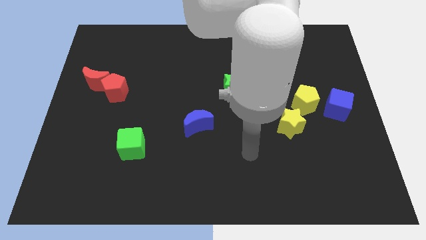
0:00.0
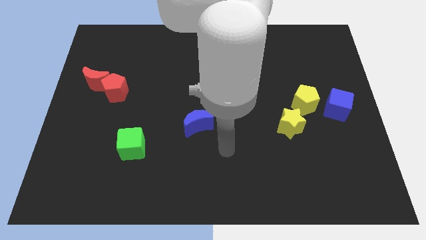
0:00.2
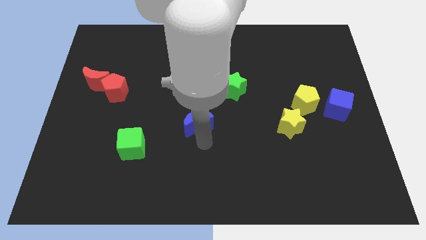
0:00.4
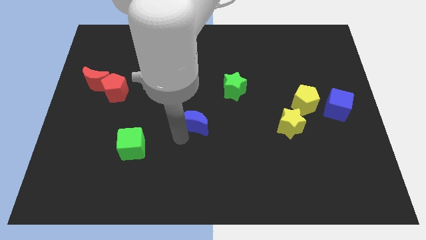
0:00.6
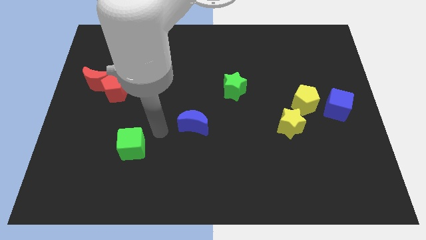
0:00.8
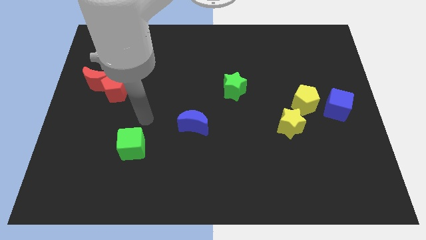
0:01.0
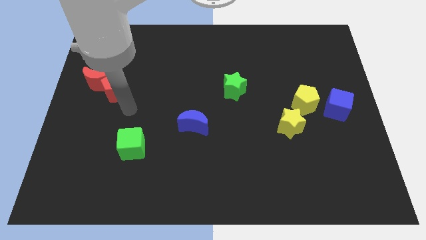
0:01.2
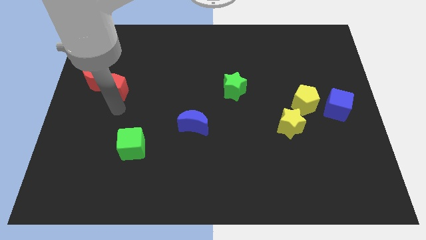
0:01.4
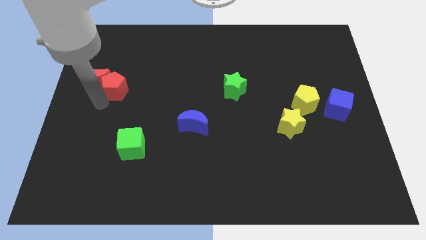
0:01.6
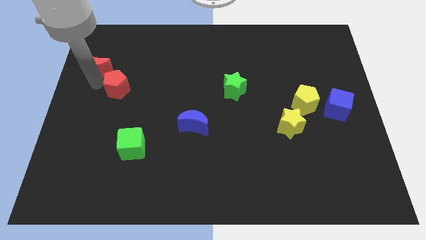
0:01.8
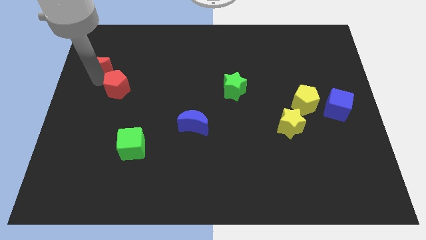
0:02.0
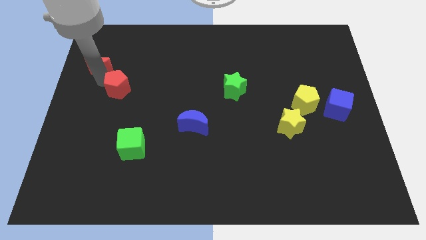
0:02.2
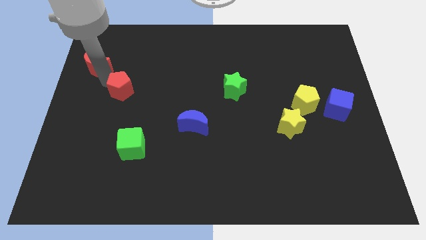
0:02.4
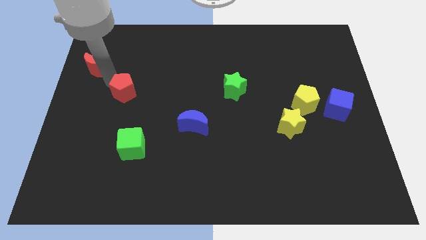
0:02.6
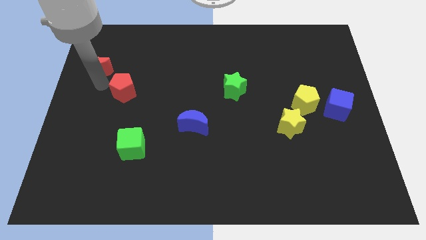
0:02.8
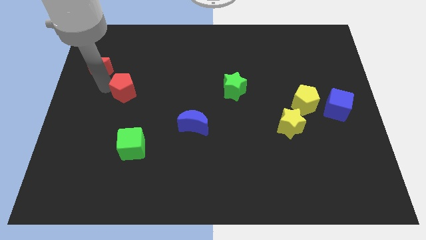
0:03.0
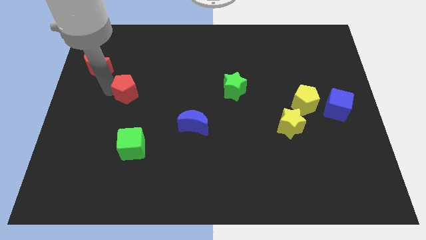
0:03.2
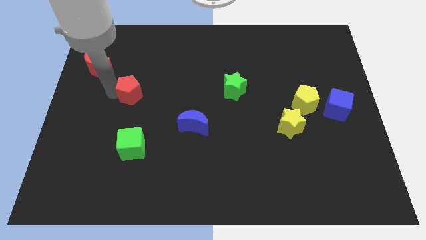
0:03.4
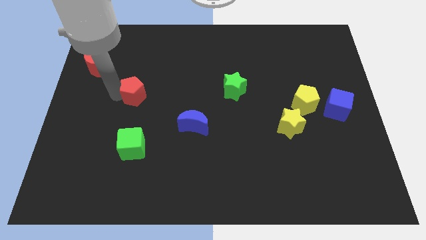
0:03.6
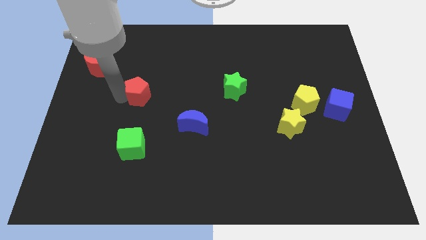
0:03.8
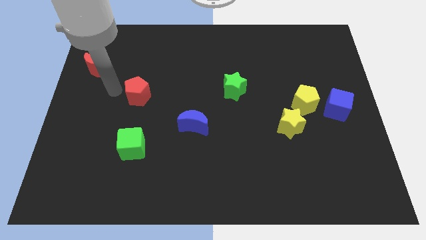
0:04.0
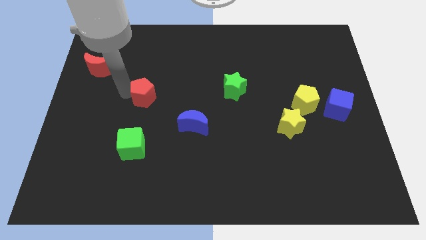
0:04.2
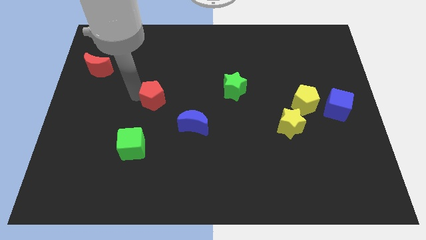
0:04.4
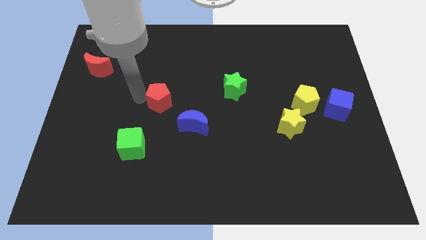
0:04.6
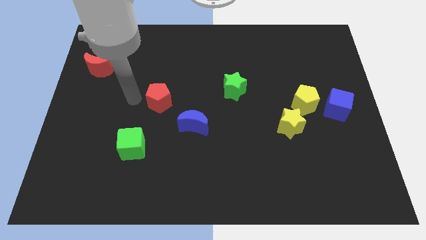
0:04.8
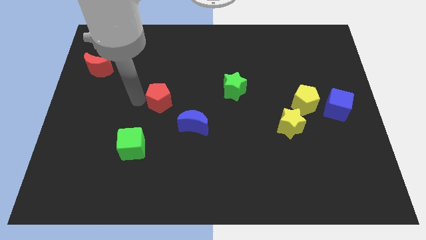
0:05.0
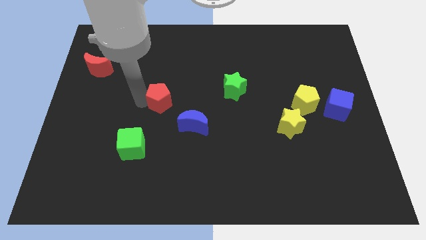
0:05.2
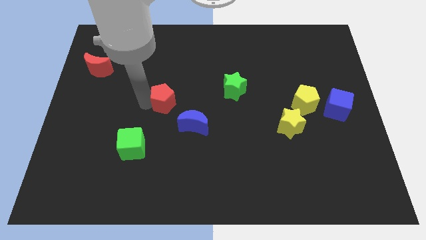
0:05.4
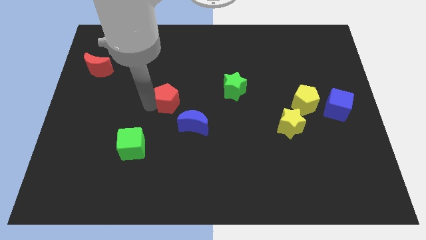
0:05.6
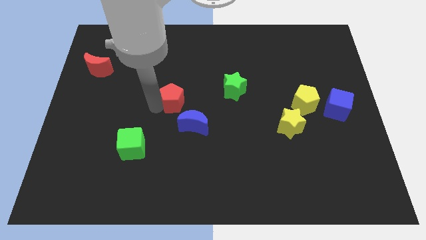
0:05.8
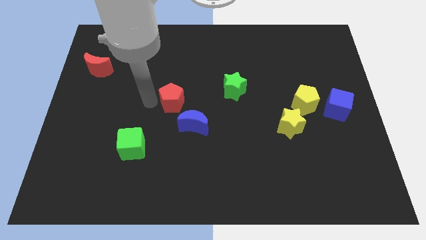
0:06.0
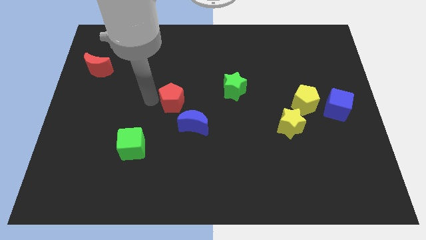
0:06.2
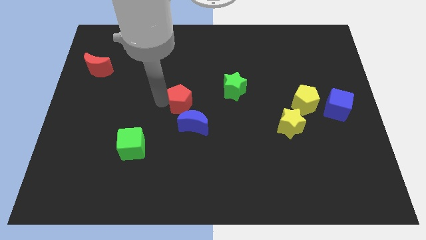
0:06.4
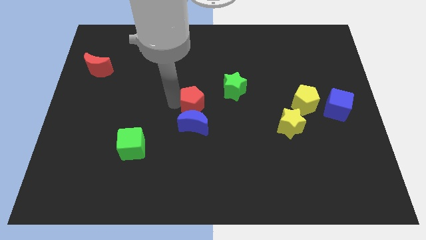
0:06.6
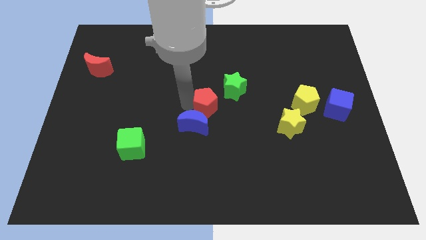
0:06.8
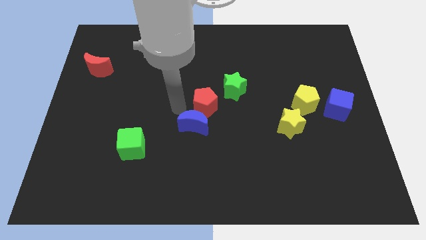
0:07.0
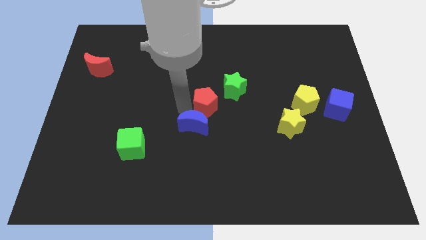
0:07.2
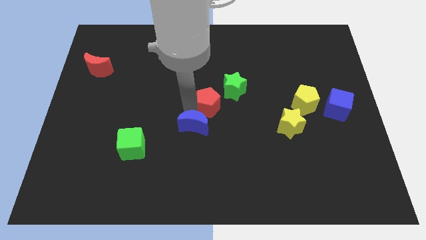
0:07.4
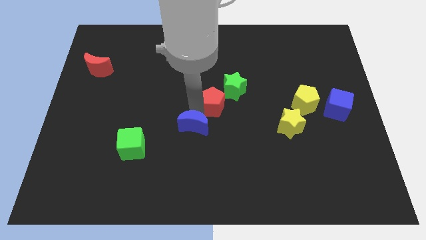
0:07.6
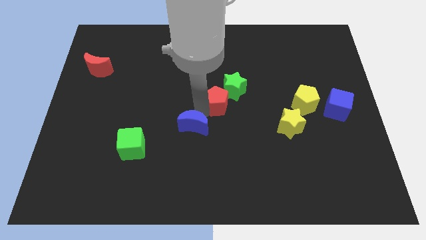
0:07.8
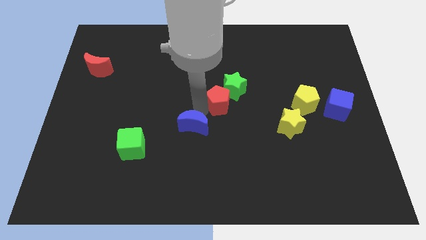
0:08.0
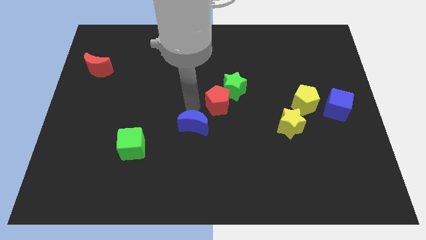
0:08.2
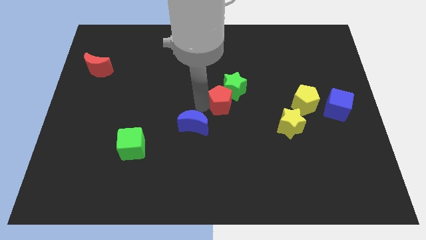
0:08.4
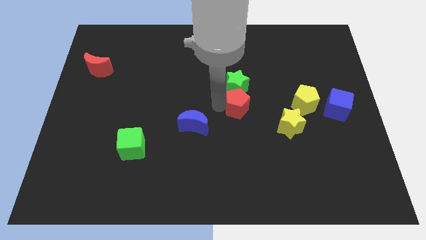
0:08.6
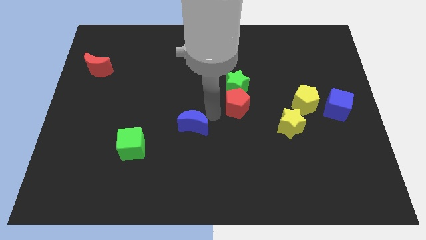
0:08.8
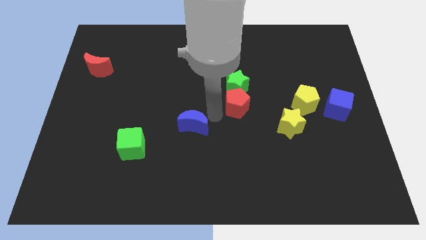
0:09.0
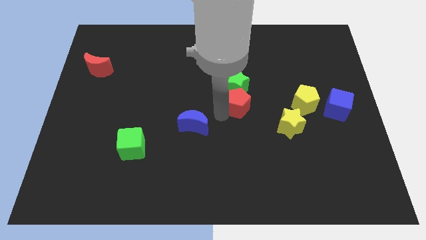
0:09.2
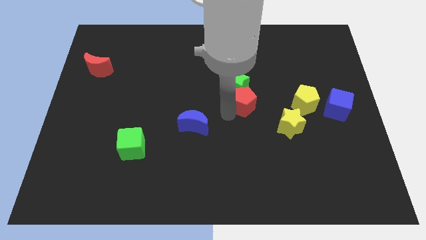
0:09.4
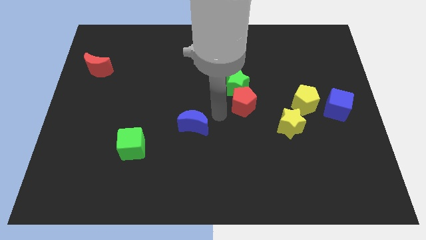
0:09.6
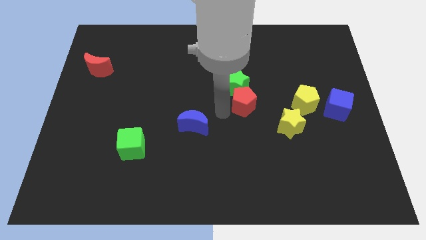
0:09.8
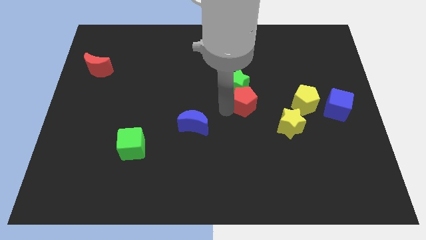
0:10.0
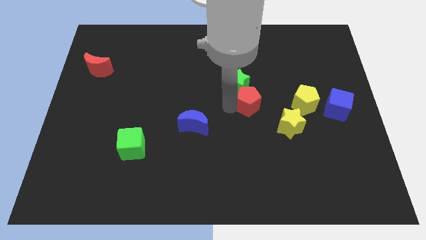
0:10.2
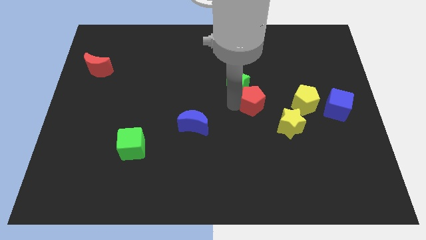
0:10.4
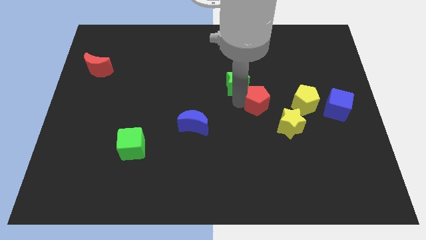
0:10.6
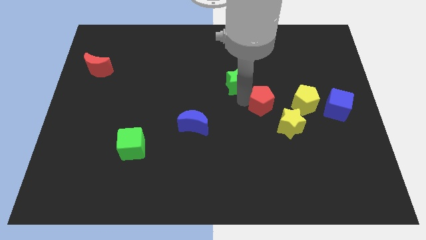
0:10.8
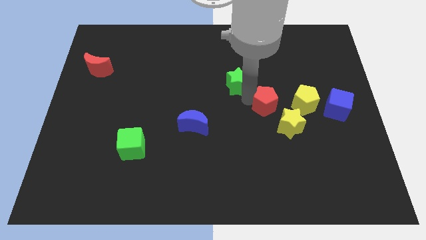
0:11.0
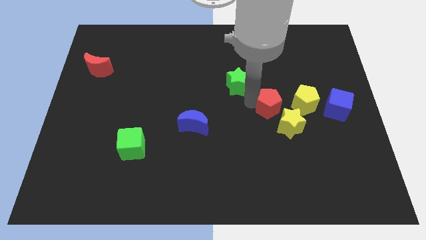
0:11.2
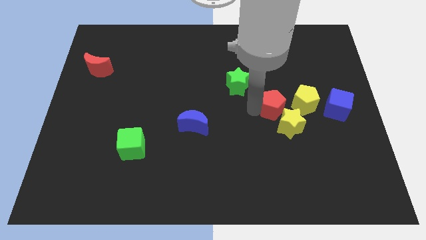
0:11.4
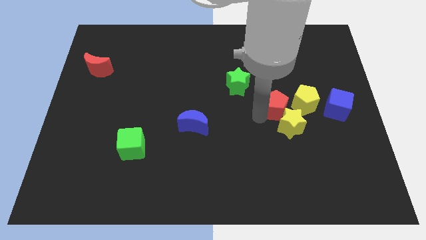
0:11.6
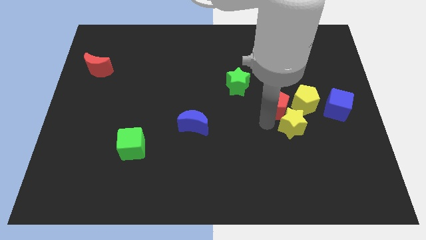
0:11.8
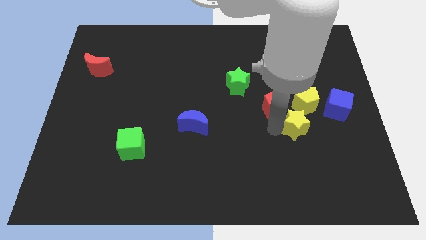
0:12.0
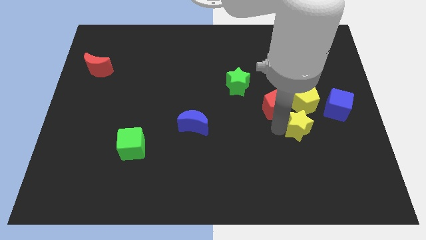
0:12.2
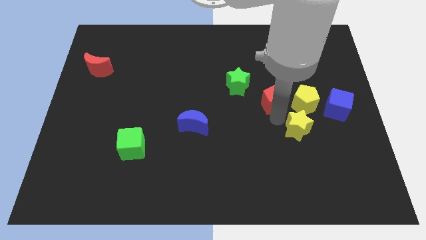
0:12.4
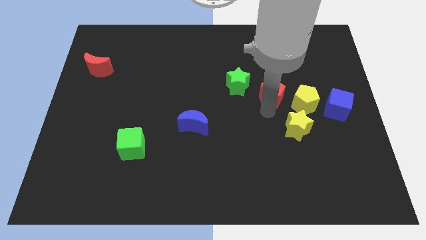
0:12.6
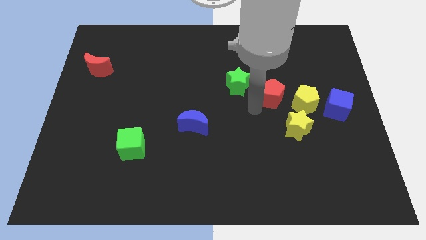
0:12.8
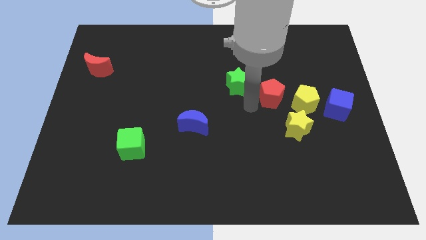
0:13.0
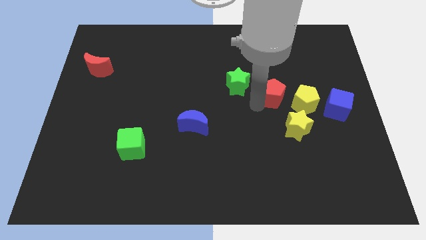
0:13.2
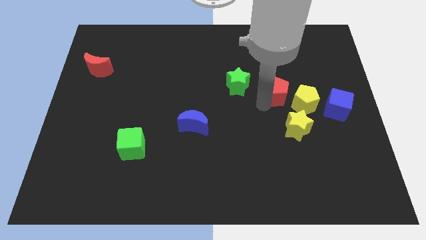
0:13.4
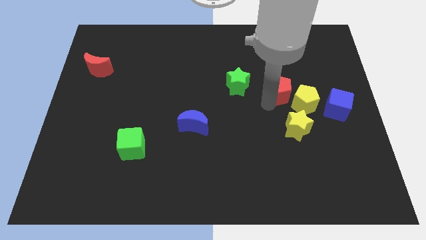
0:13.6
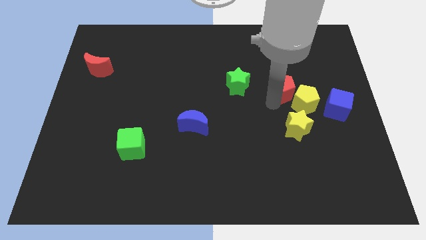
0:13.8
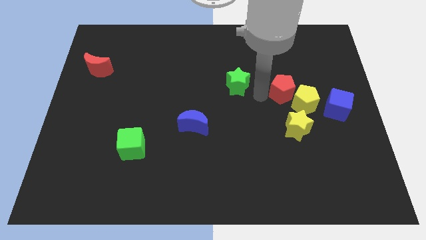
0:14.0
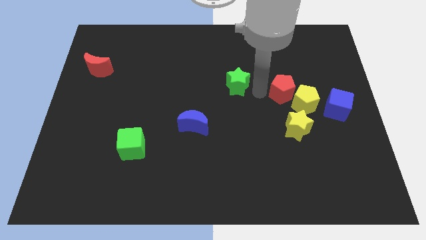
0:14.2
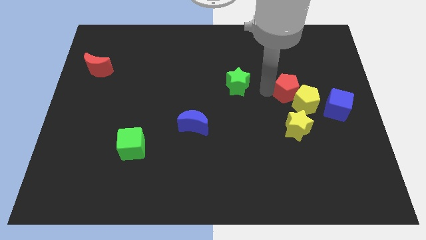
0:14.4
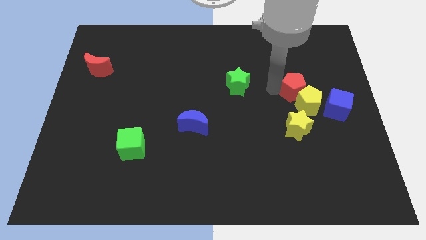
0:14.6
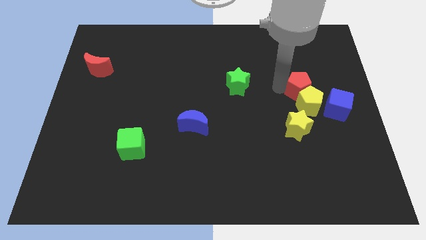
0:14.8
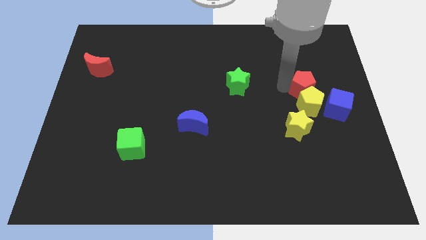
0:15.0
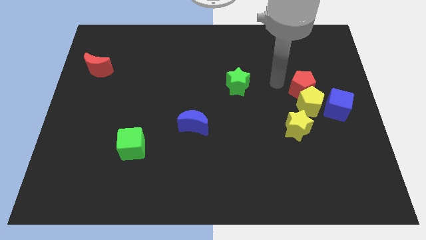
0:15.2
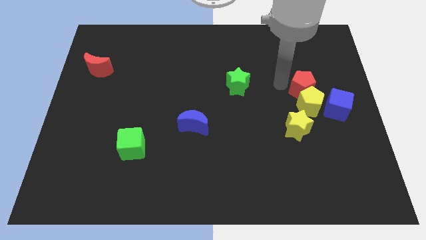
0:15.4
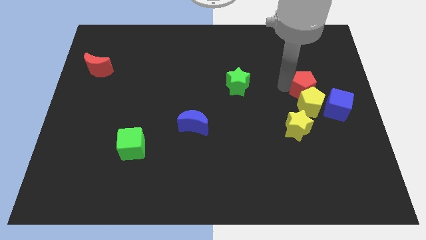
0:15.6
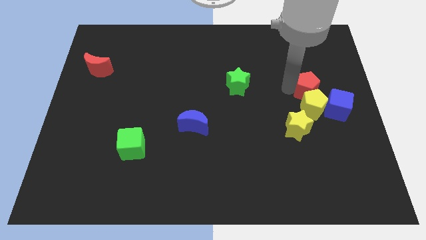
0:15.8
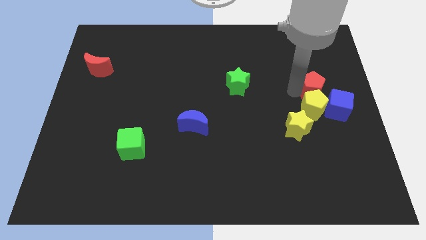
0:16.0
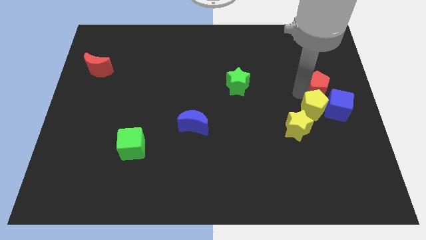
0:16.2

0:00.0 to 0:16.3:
put the red pentagon to the right side of the board
